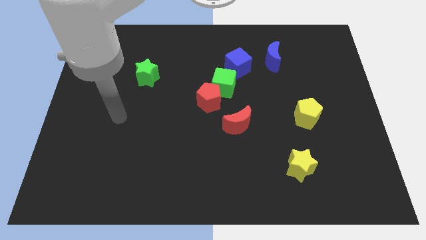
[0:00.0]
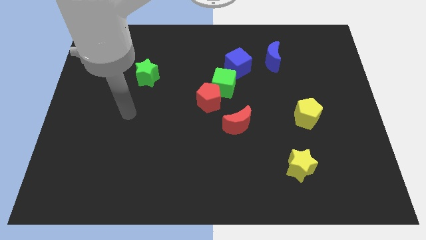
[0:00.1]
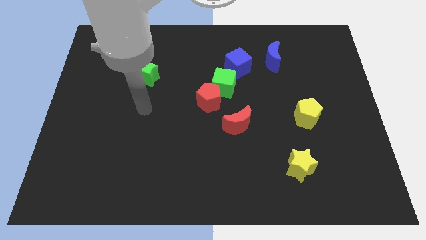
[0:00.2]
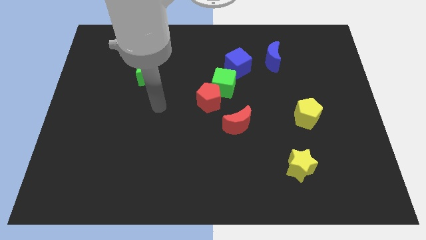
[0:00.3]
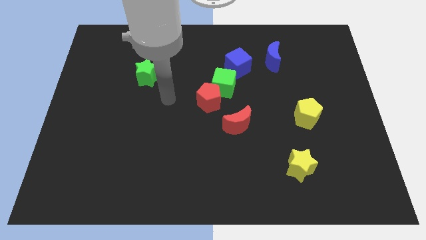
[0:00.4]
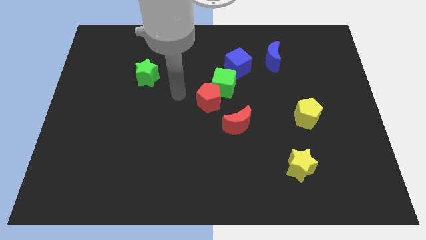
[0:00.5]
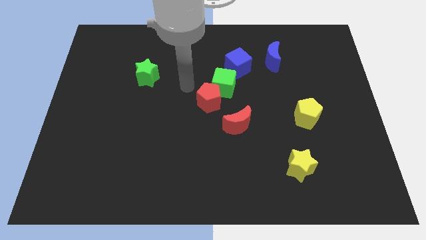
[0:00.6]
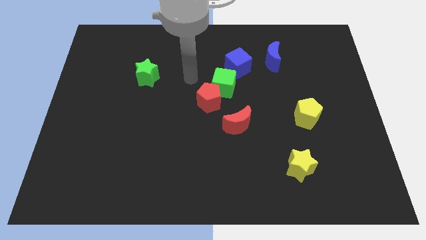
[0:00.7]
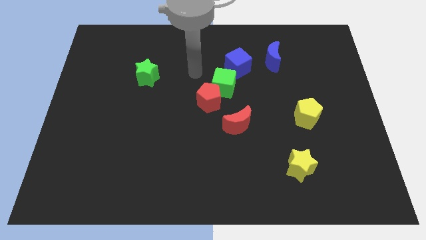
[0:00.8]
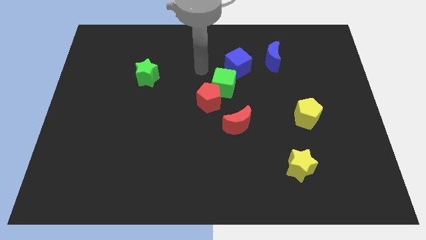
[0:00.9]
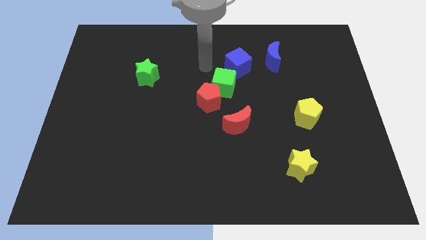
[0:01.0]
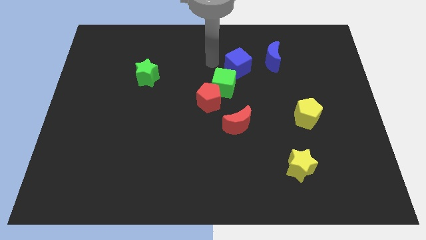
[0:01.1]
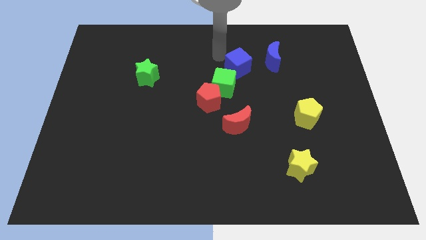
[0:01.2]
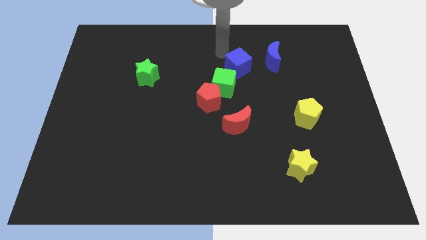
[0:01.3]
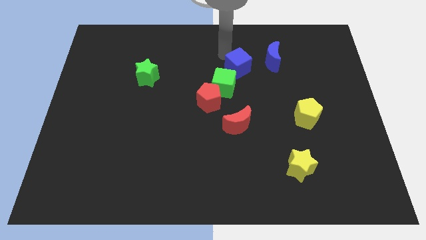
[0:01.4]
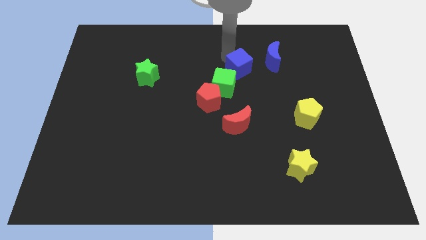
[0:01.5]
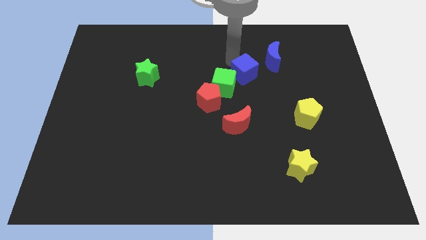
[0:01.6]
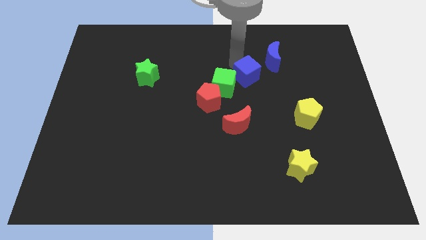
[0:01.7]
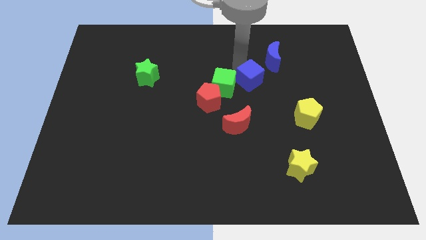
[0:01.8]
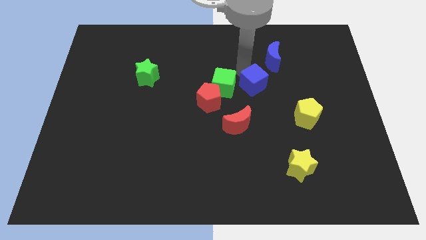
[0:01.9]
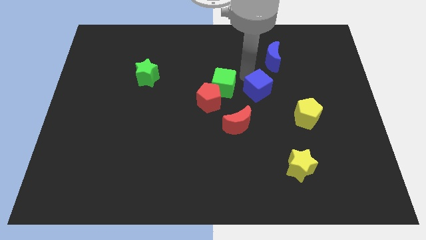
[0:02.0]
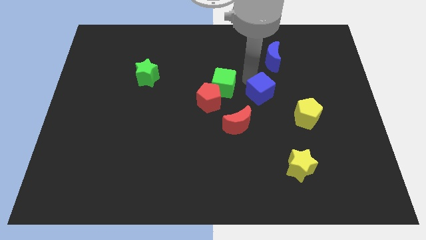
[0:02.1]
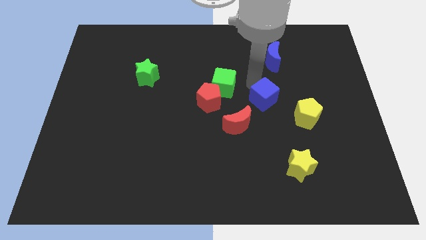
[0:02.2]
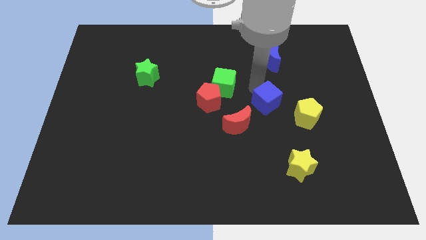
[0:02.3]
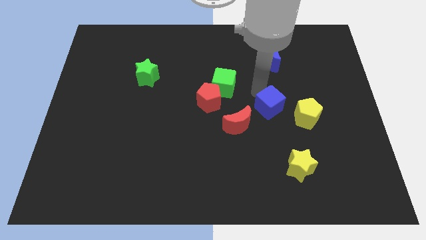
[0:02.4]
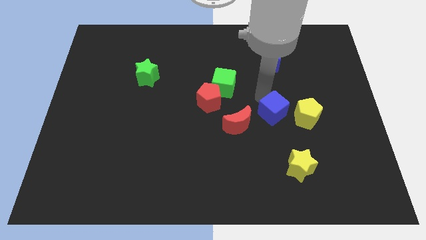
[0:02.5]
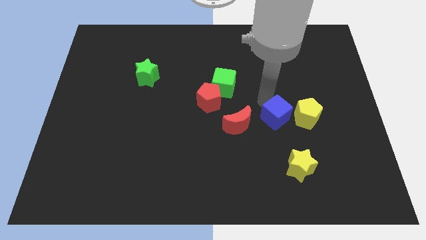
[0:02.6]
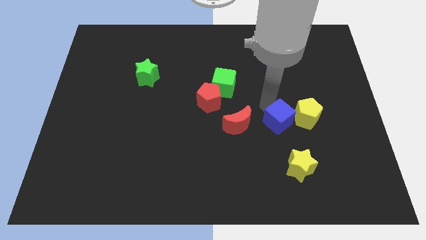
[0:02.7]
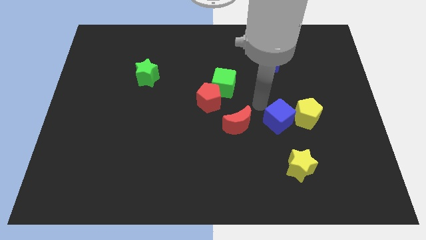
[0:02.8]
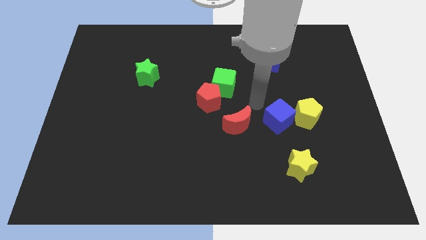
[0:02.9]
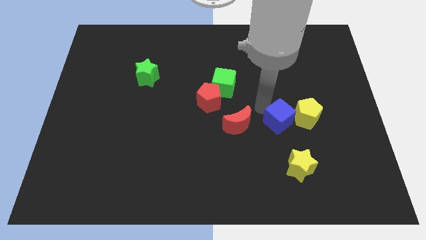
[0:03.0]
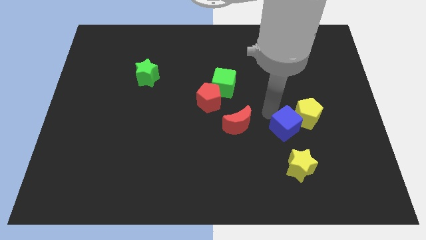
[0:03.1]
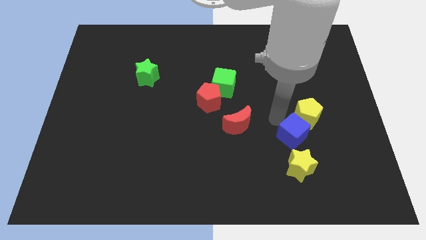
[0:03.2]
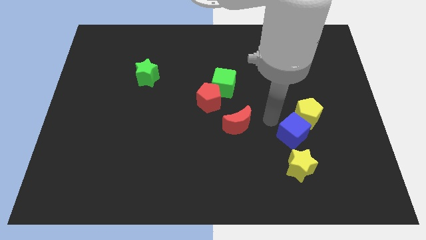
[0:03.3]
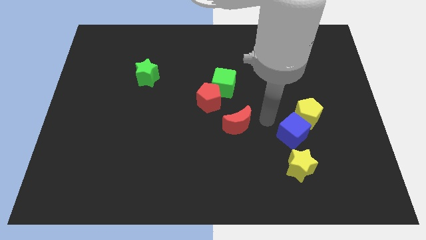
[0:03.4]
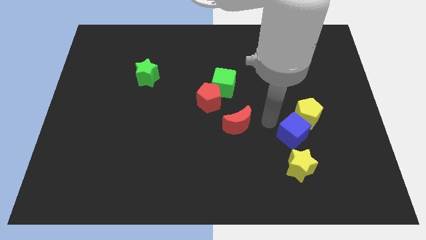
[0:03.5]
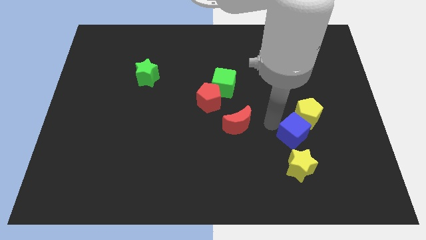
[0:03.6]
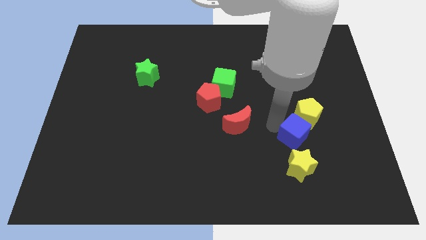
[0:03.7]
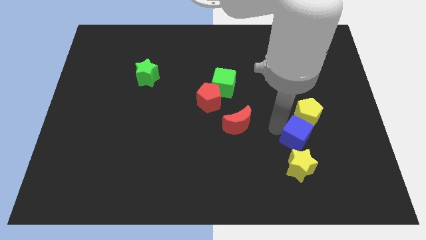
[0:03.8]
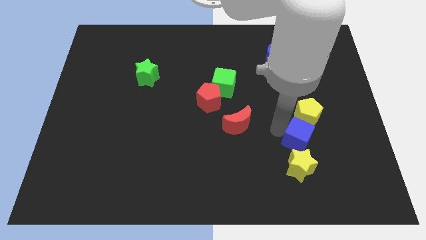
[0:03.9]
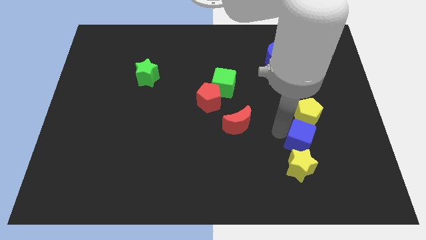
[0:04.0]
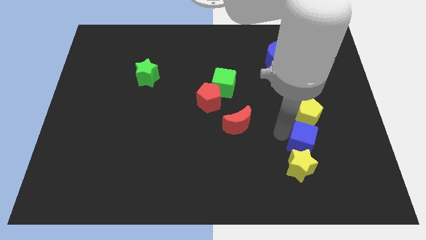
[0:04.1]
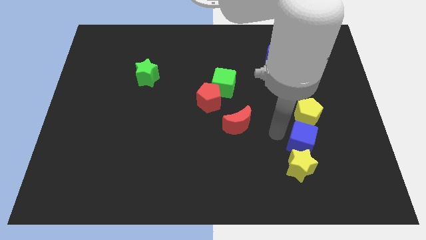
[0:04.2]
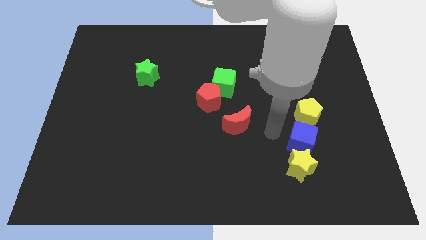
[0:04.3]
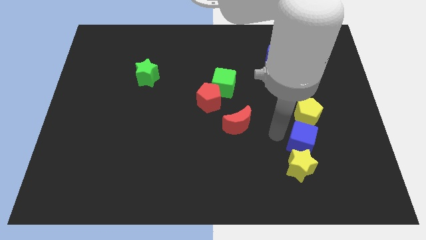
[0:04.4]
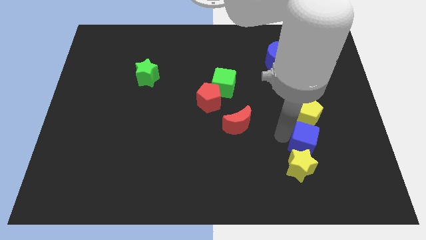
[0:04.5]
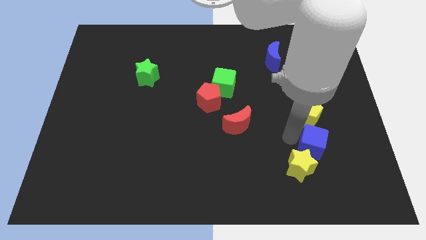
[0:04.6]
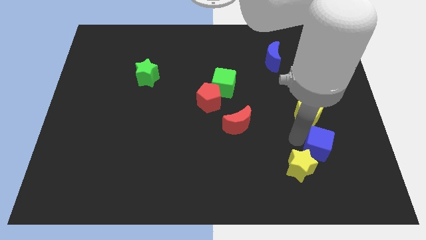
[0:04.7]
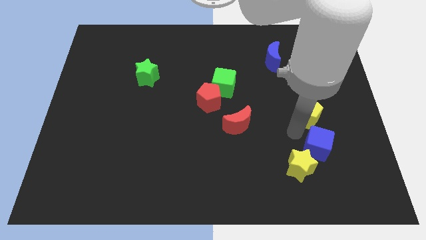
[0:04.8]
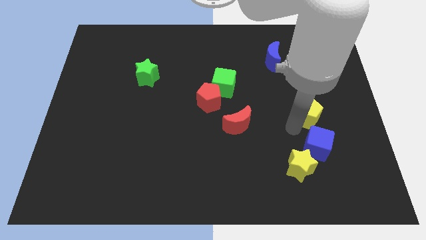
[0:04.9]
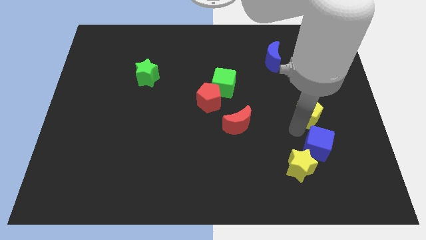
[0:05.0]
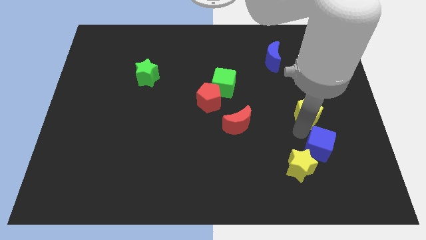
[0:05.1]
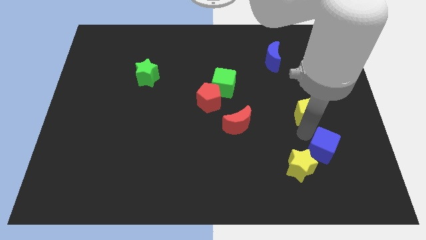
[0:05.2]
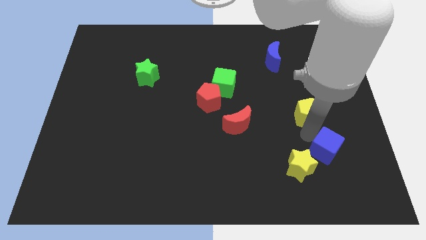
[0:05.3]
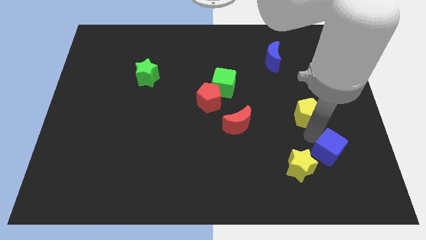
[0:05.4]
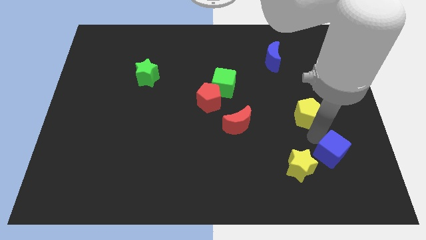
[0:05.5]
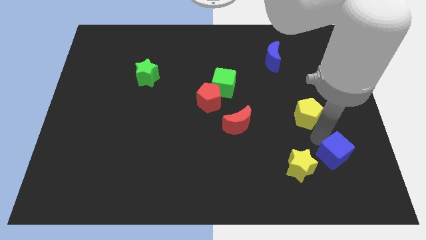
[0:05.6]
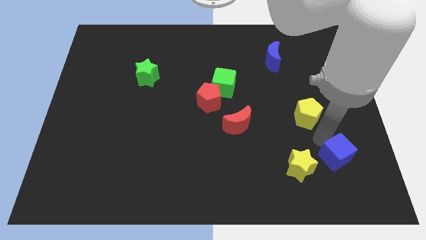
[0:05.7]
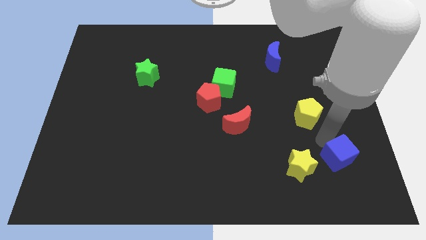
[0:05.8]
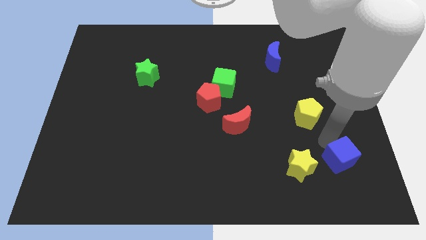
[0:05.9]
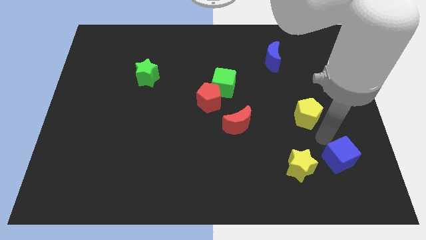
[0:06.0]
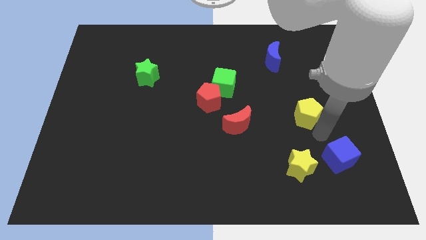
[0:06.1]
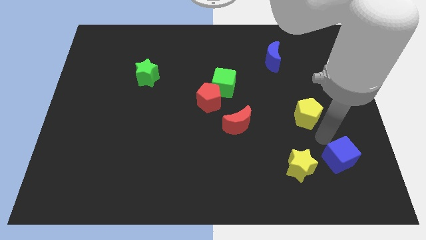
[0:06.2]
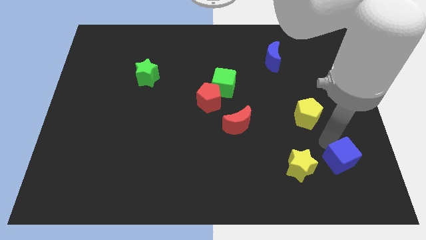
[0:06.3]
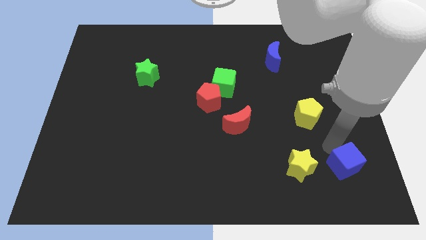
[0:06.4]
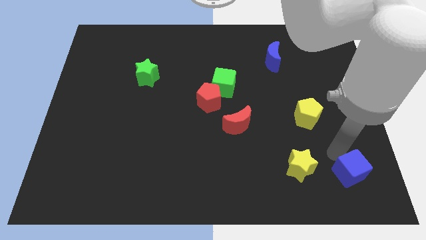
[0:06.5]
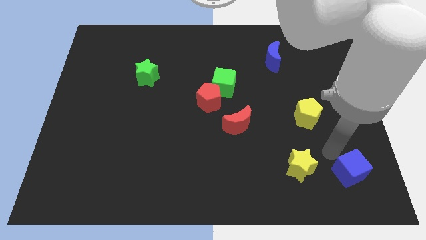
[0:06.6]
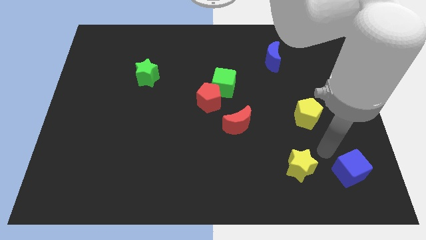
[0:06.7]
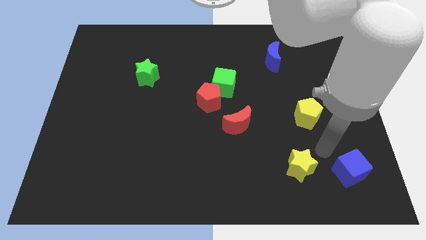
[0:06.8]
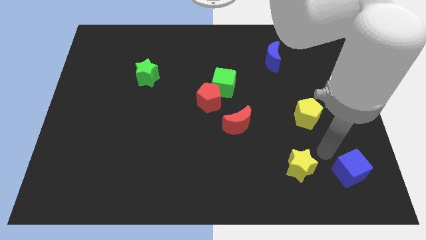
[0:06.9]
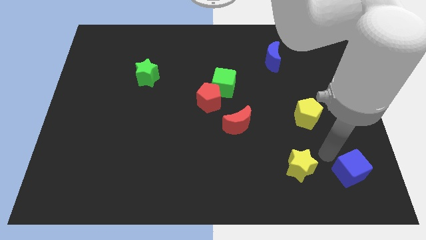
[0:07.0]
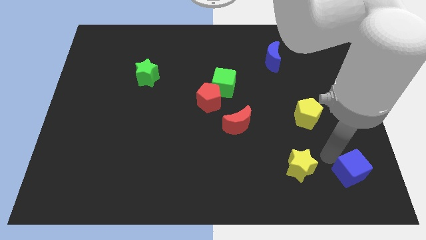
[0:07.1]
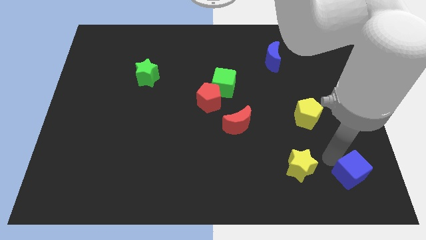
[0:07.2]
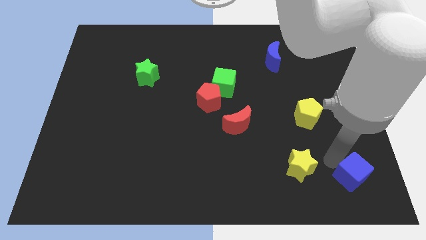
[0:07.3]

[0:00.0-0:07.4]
put the blue cube to the bottom right corner
